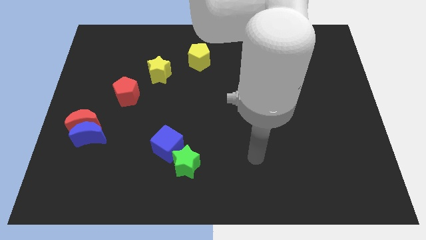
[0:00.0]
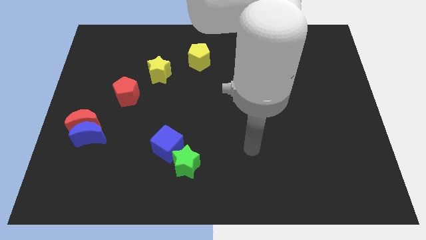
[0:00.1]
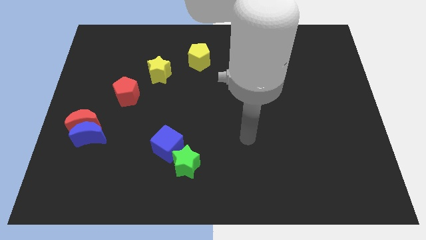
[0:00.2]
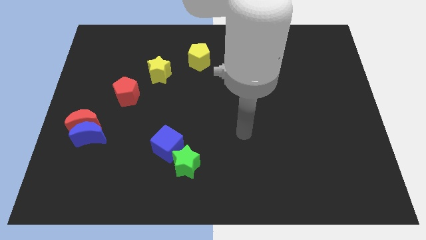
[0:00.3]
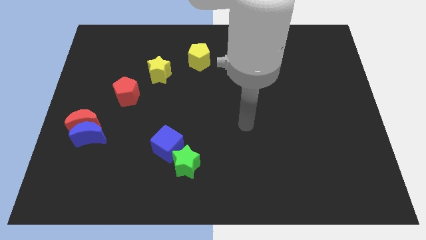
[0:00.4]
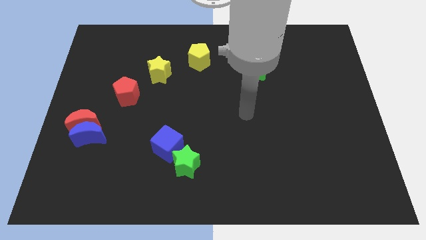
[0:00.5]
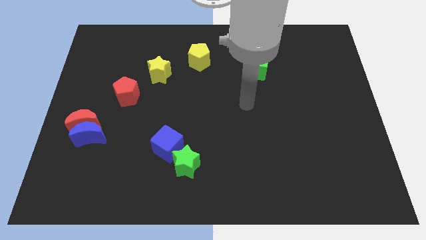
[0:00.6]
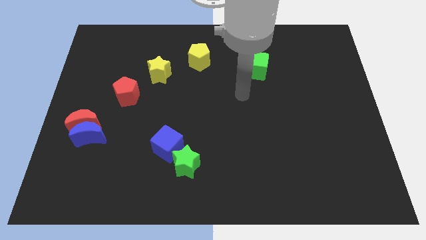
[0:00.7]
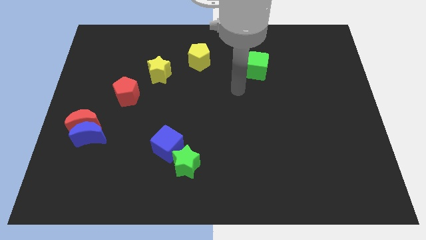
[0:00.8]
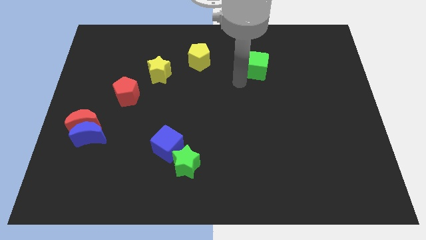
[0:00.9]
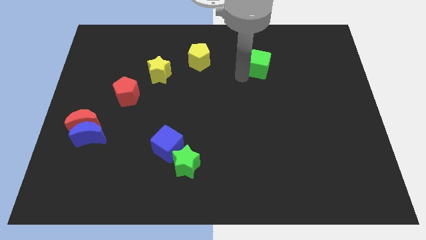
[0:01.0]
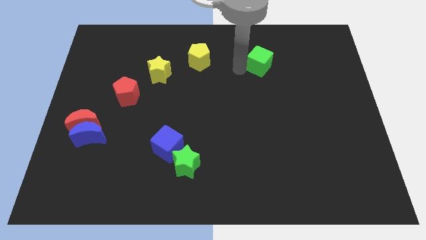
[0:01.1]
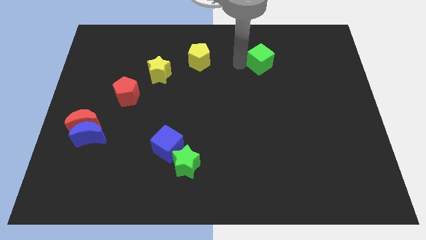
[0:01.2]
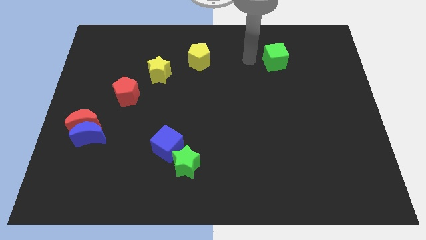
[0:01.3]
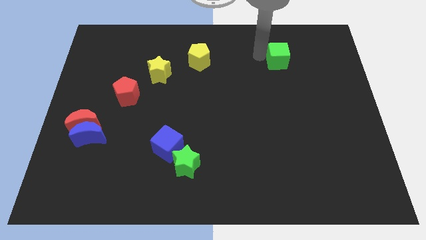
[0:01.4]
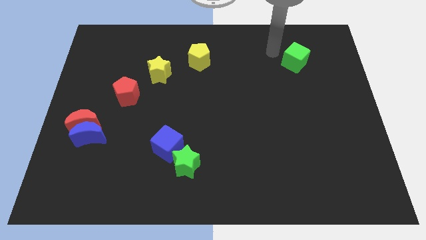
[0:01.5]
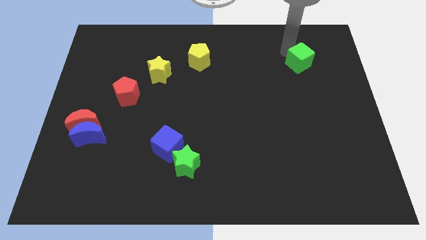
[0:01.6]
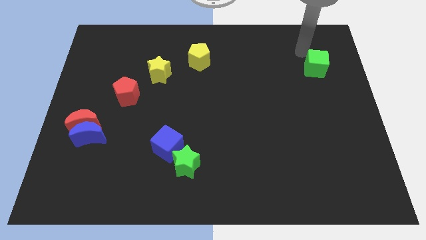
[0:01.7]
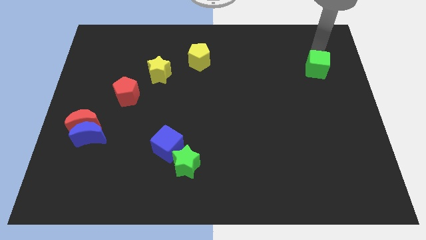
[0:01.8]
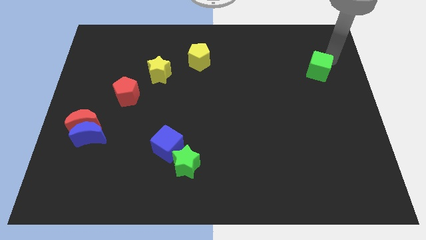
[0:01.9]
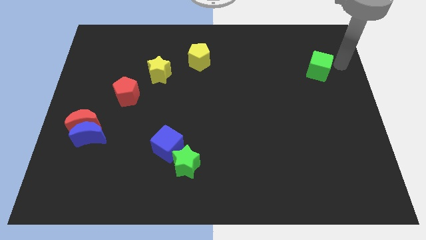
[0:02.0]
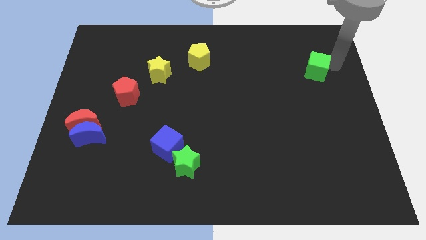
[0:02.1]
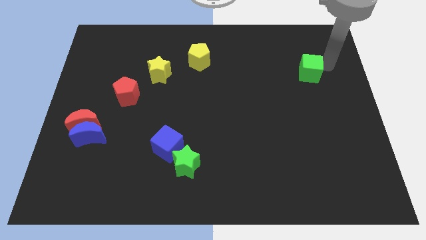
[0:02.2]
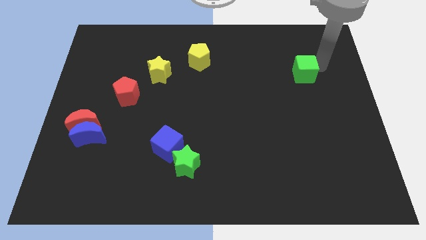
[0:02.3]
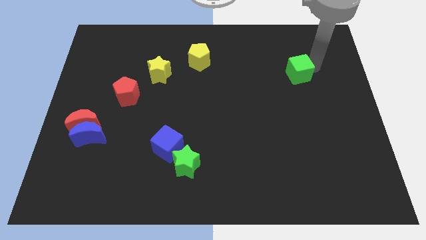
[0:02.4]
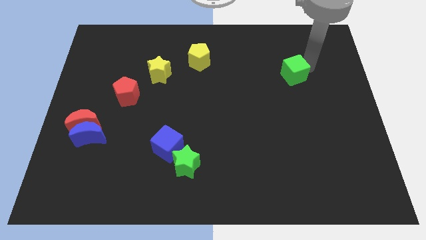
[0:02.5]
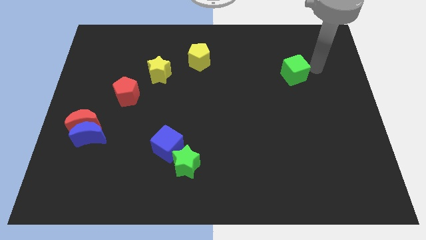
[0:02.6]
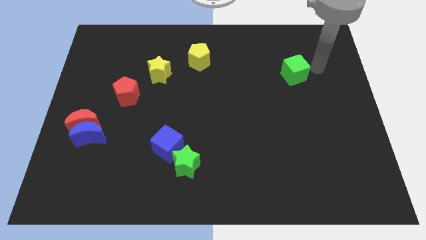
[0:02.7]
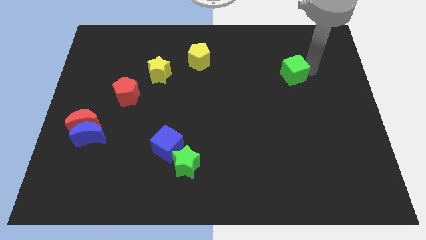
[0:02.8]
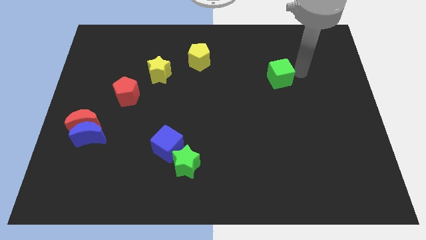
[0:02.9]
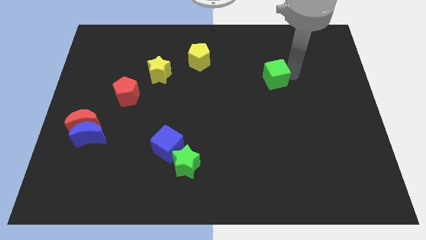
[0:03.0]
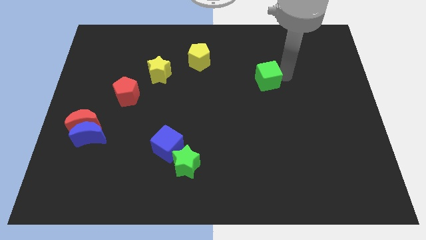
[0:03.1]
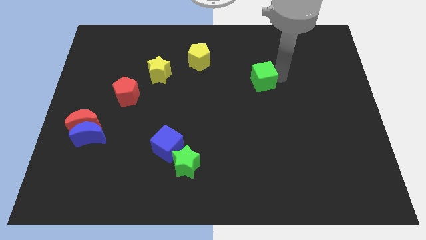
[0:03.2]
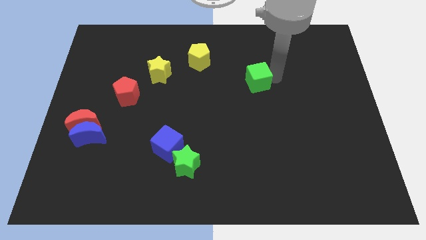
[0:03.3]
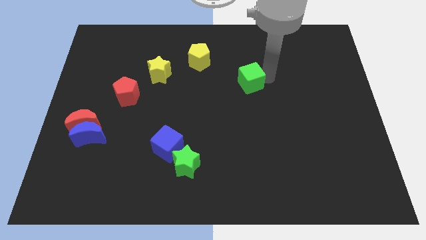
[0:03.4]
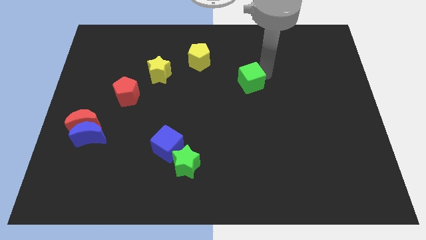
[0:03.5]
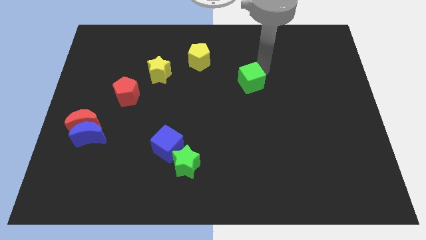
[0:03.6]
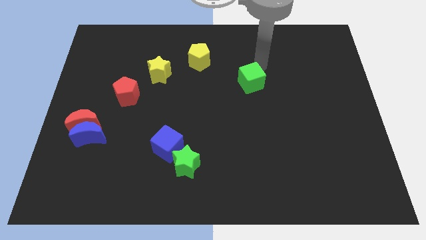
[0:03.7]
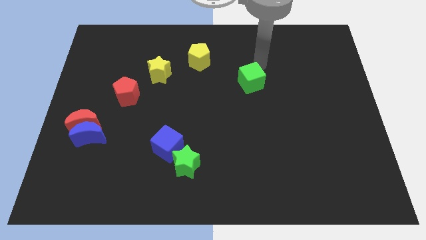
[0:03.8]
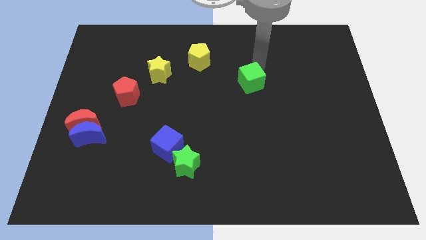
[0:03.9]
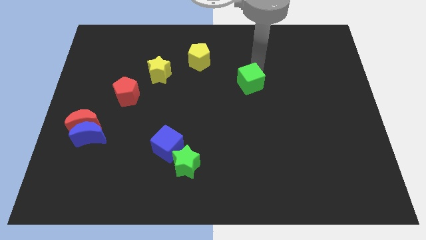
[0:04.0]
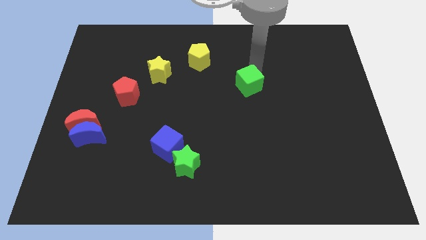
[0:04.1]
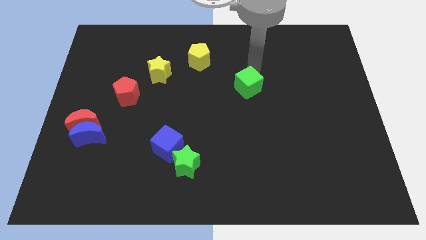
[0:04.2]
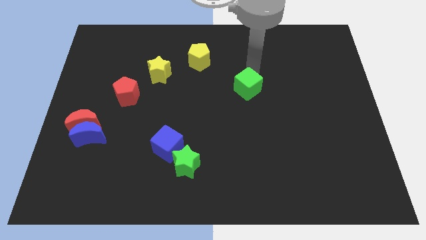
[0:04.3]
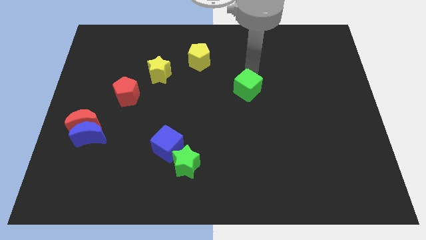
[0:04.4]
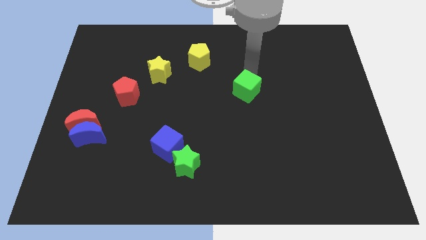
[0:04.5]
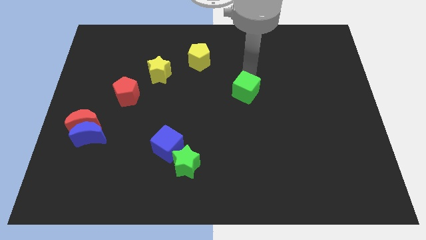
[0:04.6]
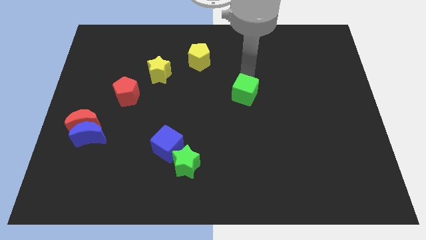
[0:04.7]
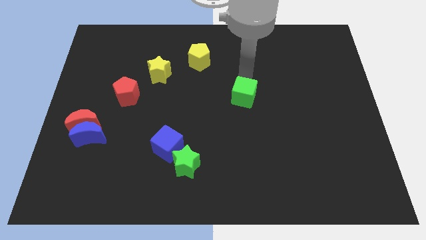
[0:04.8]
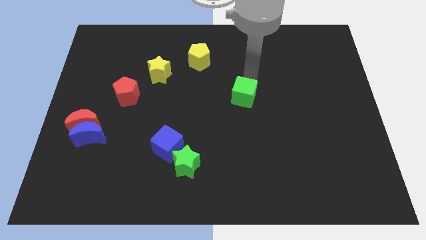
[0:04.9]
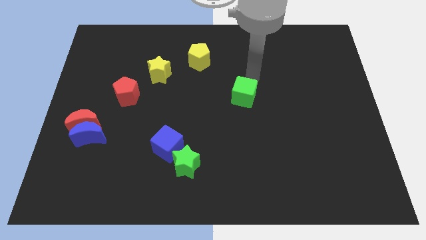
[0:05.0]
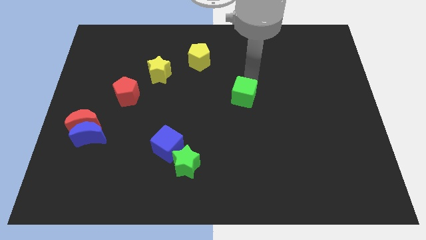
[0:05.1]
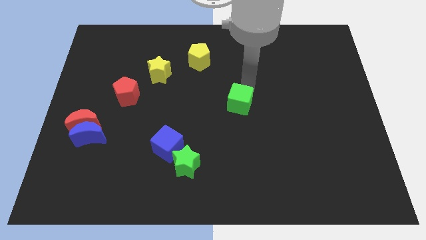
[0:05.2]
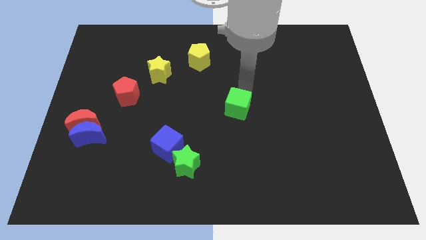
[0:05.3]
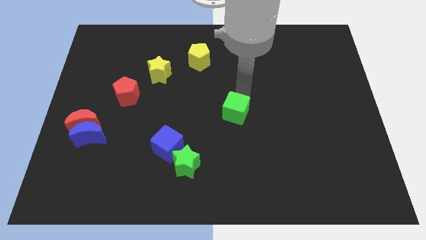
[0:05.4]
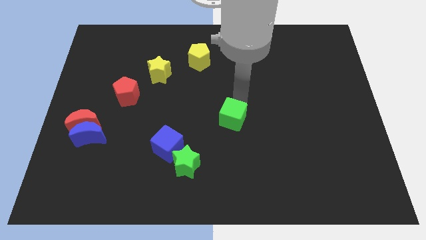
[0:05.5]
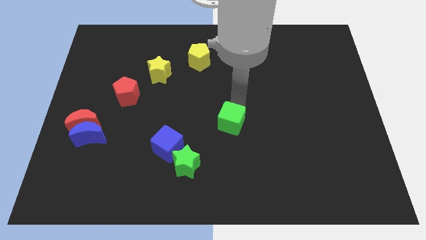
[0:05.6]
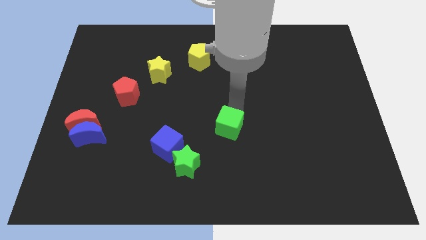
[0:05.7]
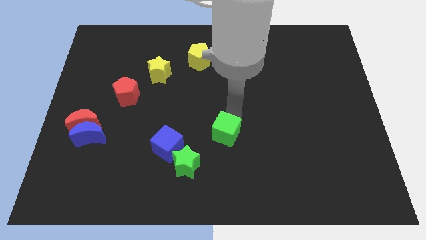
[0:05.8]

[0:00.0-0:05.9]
slide the green cube right of the blue cube

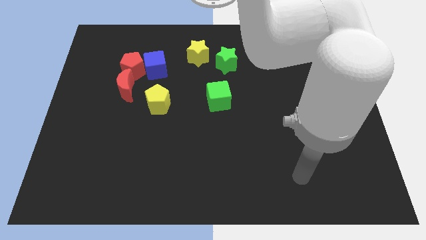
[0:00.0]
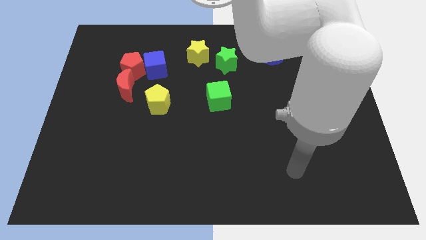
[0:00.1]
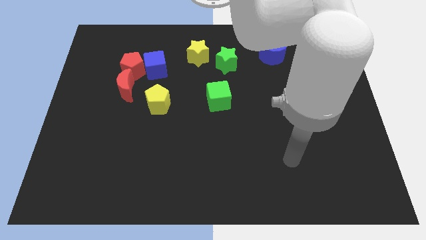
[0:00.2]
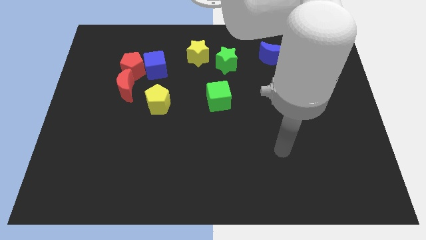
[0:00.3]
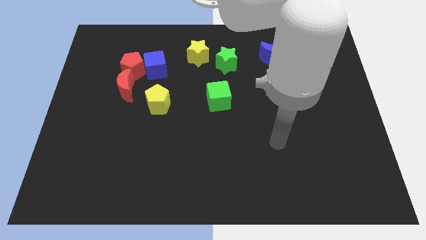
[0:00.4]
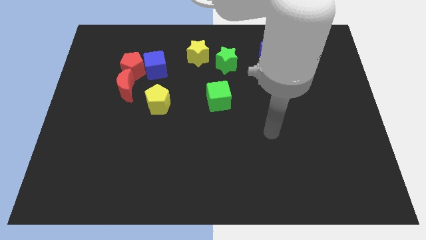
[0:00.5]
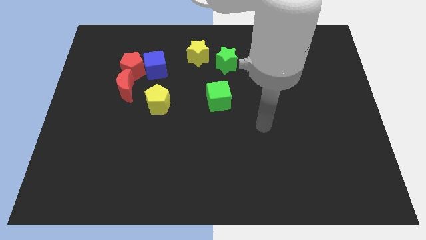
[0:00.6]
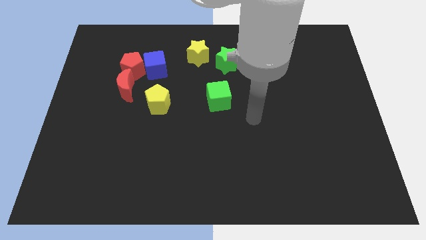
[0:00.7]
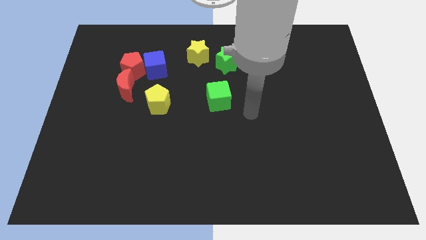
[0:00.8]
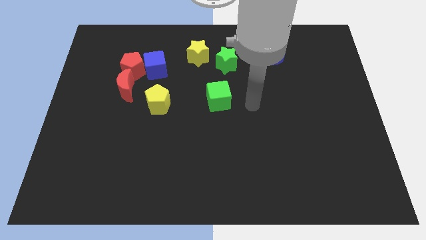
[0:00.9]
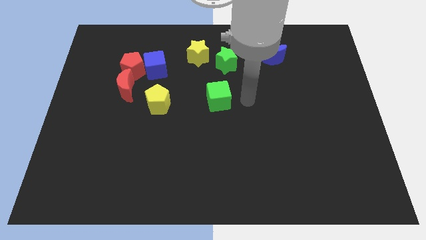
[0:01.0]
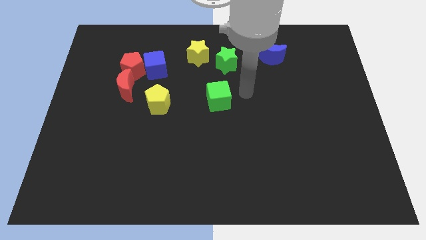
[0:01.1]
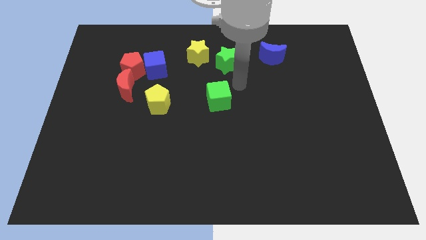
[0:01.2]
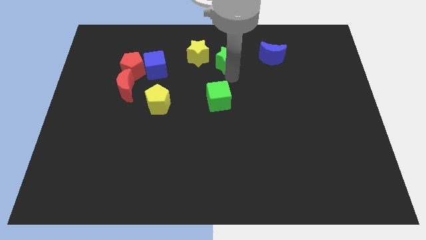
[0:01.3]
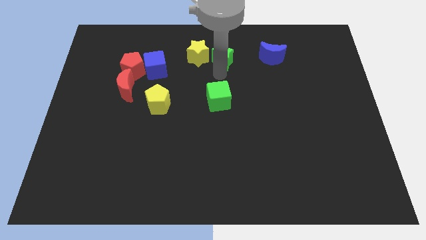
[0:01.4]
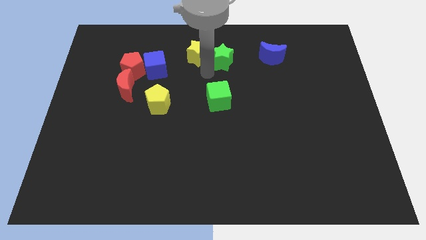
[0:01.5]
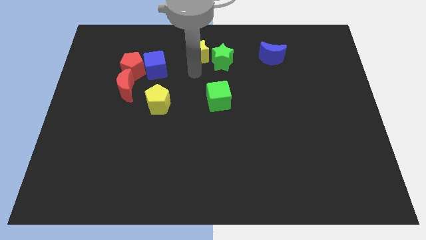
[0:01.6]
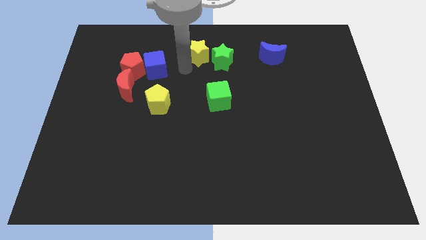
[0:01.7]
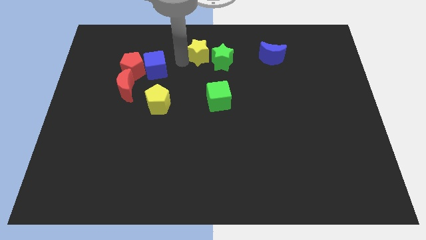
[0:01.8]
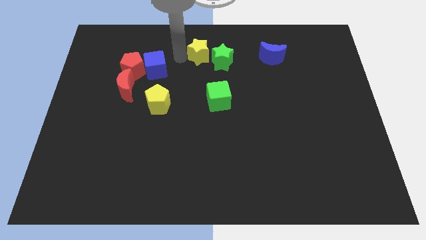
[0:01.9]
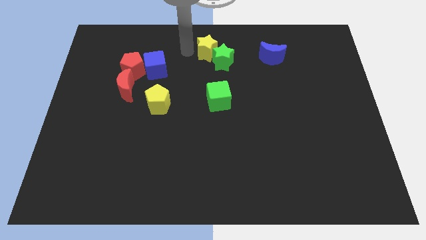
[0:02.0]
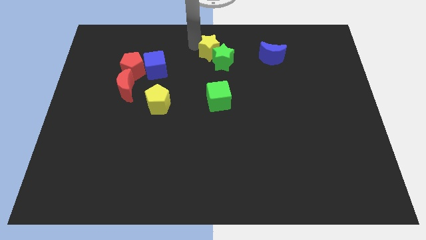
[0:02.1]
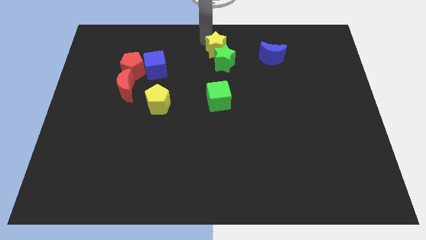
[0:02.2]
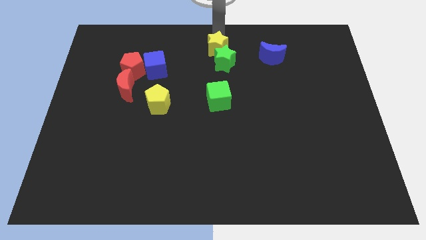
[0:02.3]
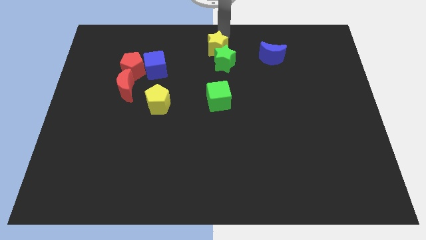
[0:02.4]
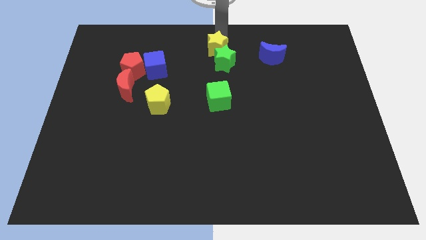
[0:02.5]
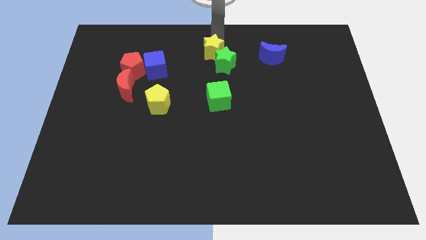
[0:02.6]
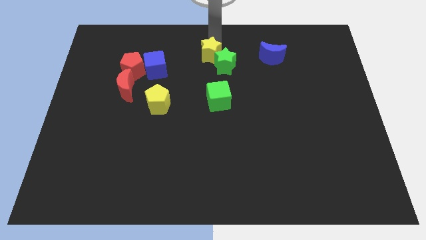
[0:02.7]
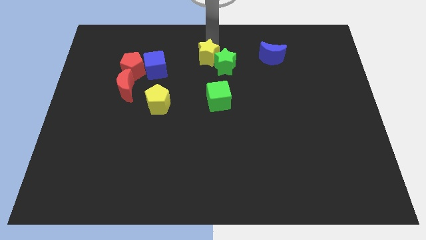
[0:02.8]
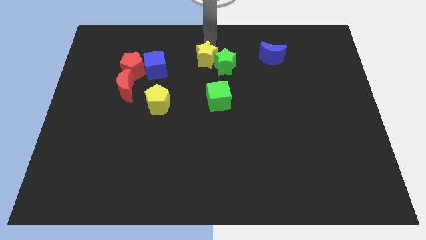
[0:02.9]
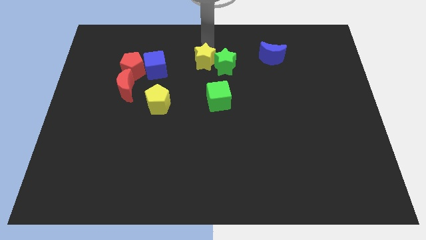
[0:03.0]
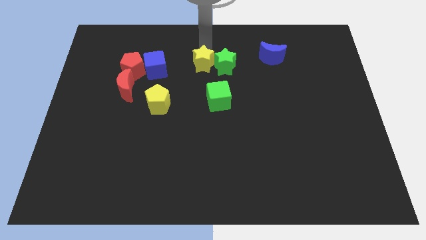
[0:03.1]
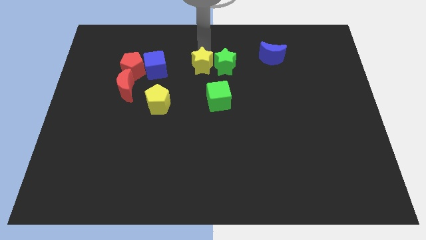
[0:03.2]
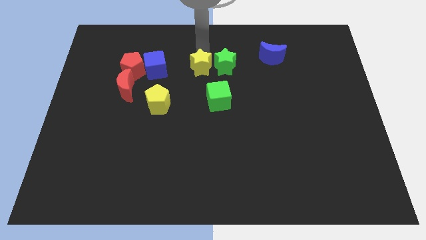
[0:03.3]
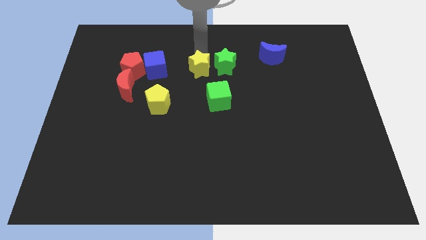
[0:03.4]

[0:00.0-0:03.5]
slide the yellow star to the top left side of the green cube
